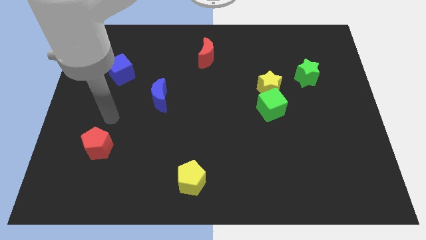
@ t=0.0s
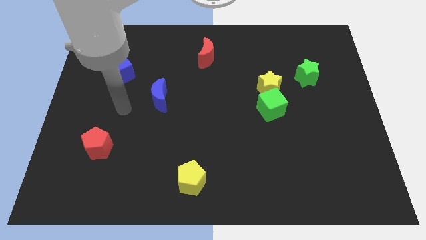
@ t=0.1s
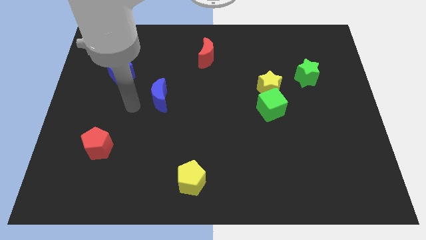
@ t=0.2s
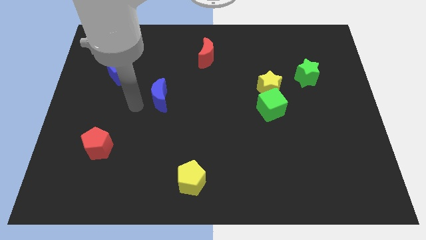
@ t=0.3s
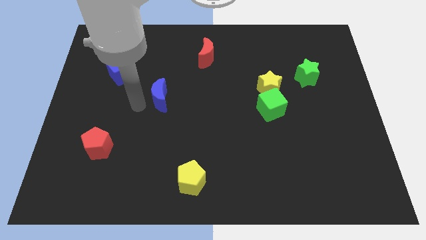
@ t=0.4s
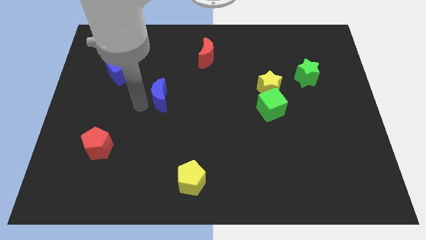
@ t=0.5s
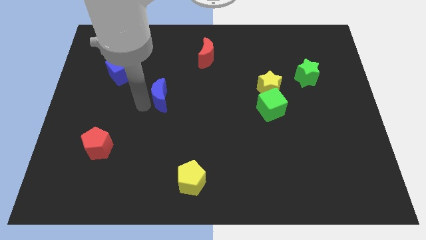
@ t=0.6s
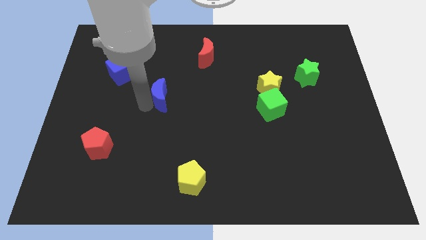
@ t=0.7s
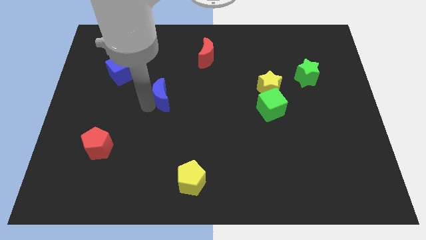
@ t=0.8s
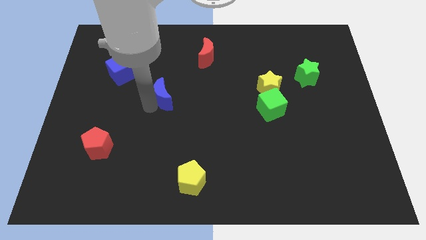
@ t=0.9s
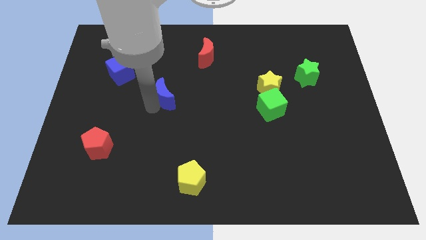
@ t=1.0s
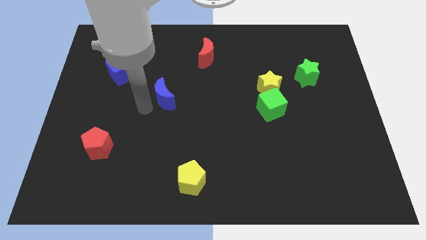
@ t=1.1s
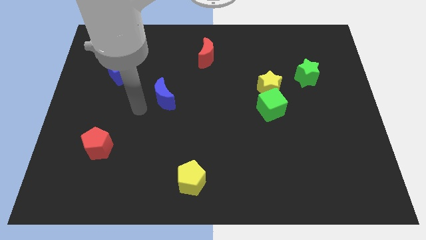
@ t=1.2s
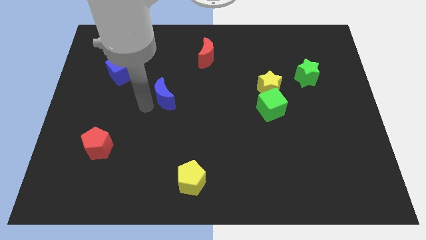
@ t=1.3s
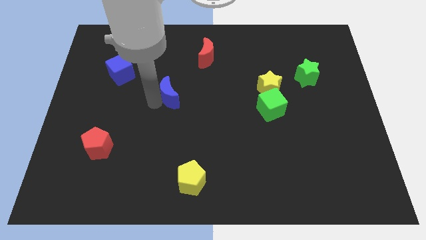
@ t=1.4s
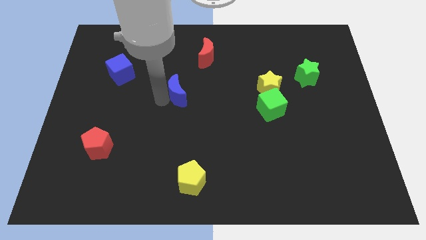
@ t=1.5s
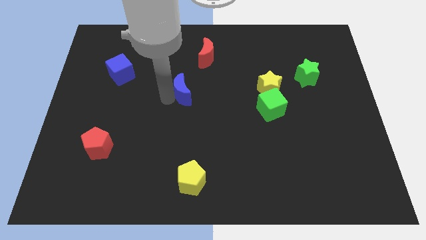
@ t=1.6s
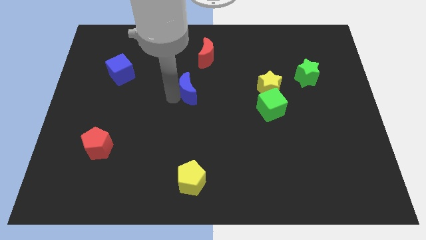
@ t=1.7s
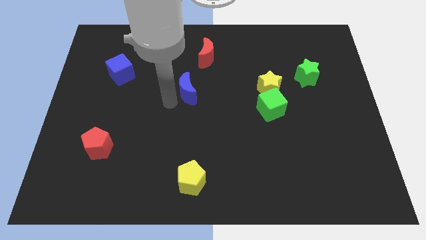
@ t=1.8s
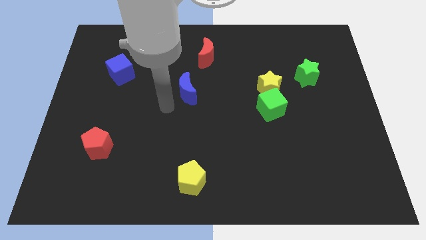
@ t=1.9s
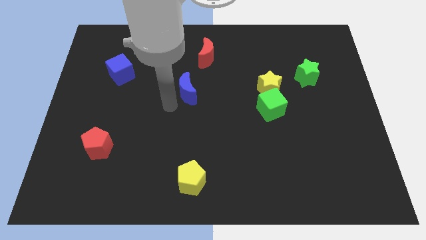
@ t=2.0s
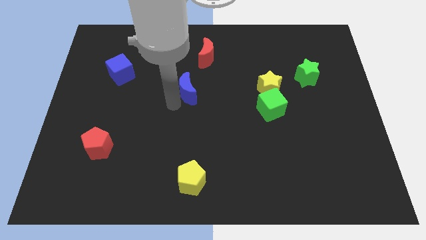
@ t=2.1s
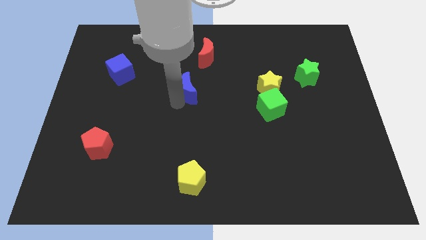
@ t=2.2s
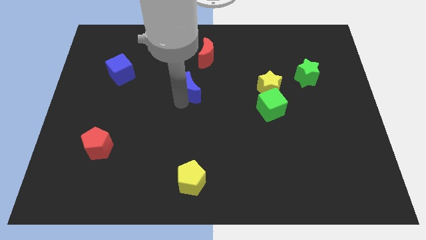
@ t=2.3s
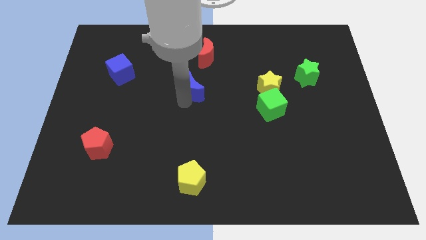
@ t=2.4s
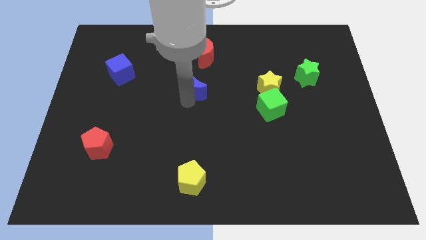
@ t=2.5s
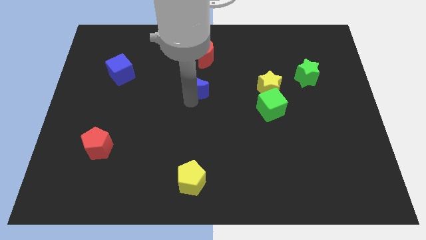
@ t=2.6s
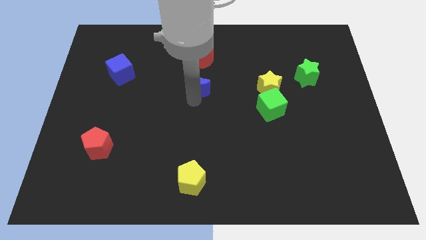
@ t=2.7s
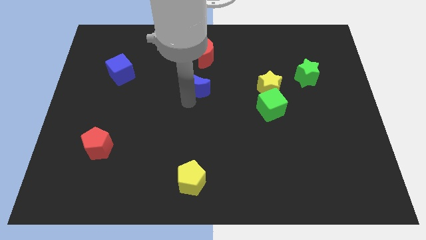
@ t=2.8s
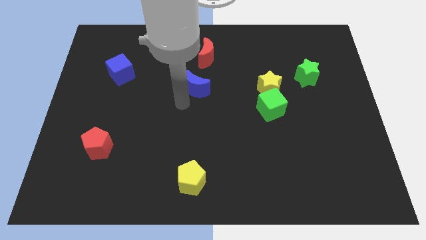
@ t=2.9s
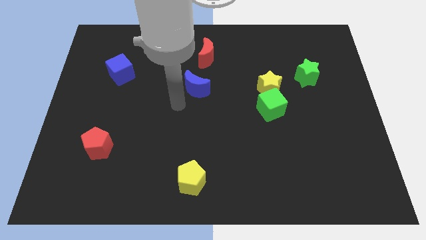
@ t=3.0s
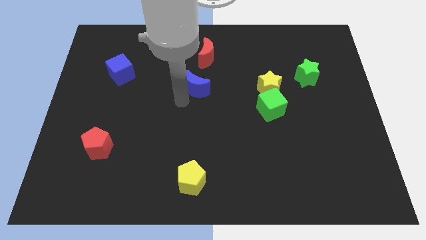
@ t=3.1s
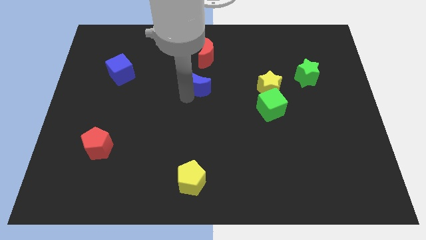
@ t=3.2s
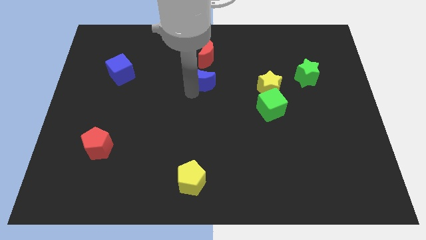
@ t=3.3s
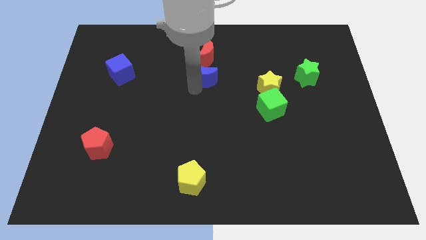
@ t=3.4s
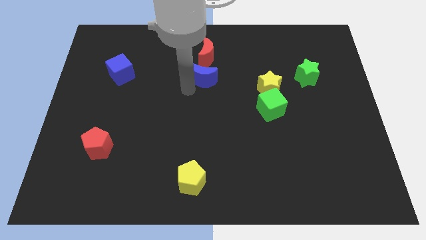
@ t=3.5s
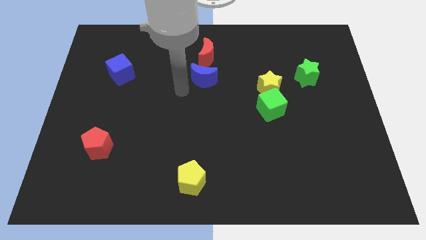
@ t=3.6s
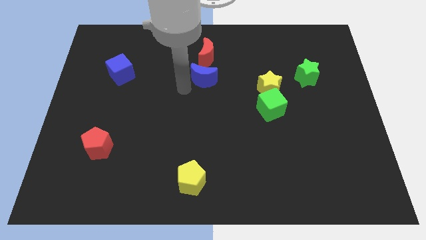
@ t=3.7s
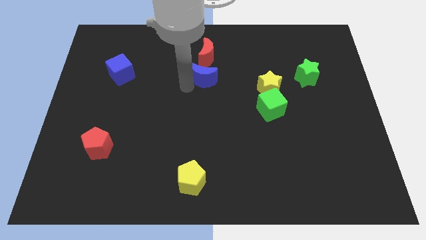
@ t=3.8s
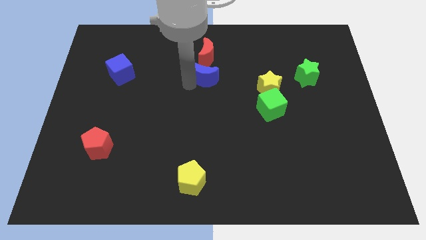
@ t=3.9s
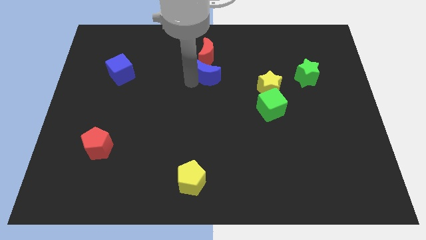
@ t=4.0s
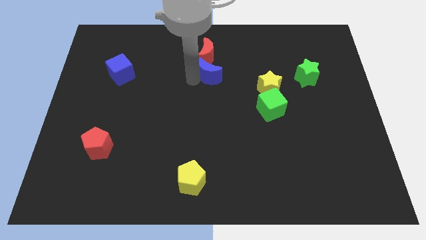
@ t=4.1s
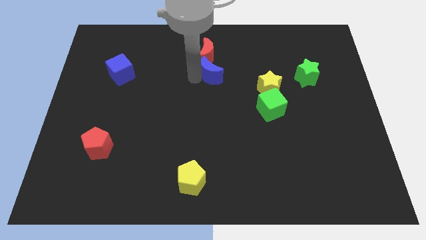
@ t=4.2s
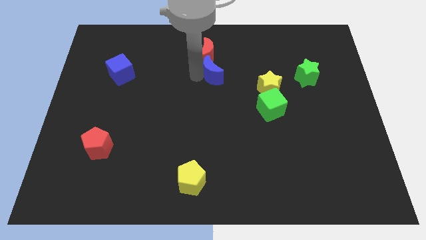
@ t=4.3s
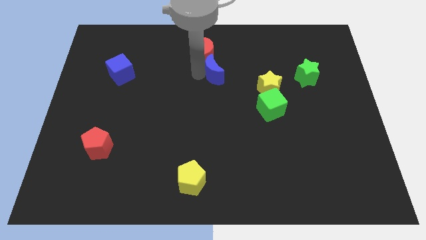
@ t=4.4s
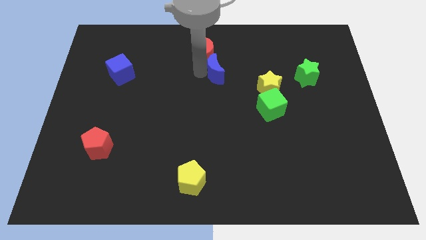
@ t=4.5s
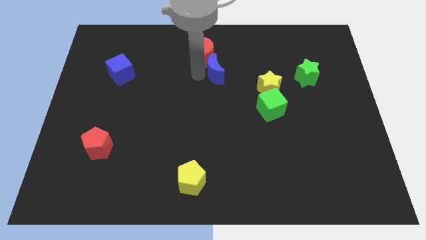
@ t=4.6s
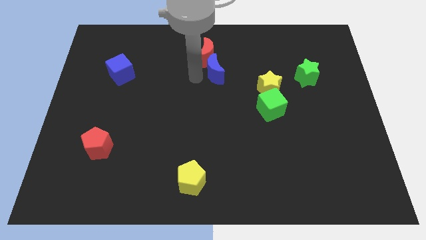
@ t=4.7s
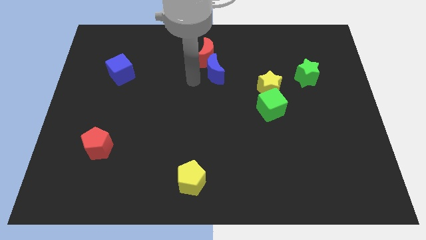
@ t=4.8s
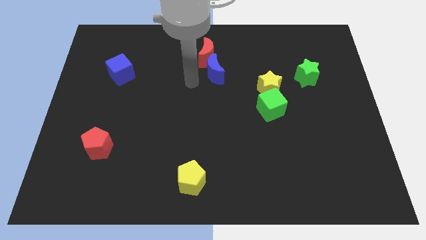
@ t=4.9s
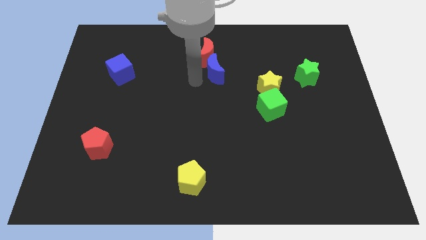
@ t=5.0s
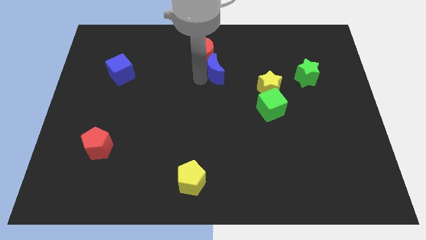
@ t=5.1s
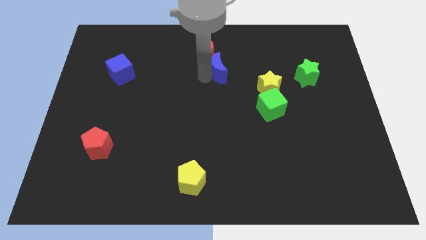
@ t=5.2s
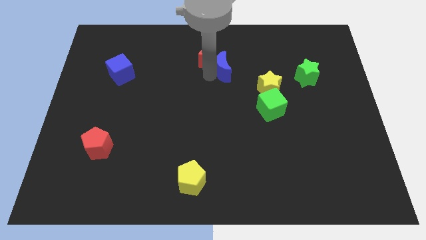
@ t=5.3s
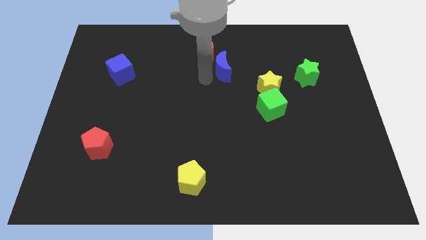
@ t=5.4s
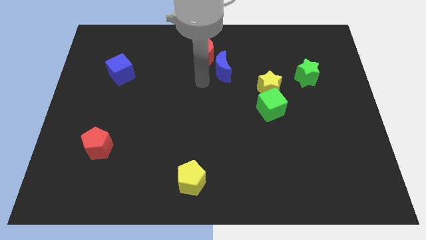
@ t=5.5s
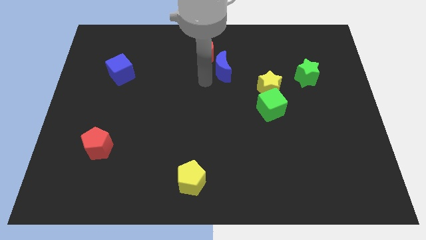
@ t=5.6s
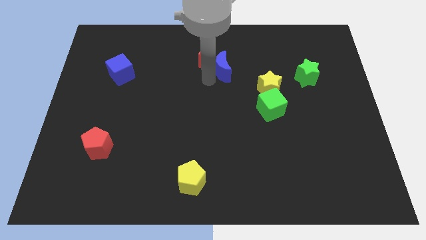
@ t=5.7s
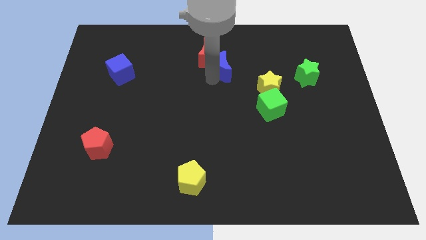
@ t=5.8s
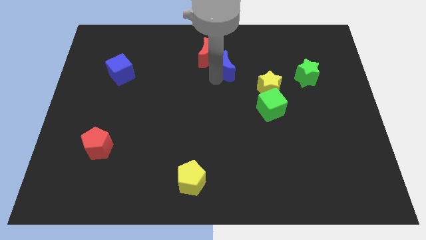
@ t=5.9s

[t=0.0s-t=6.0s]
move the blue moon just right of the red moon

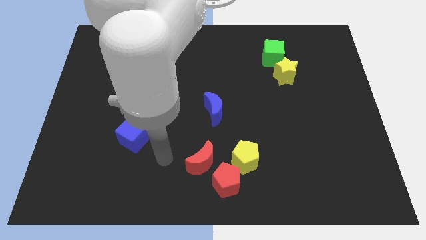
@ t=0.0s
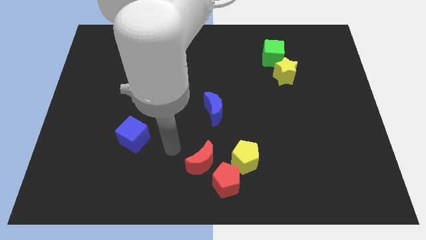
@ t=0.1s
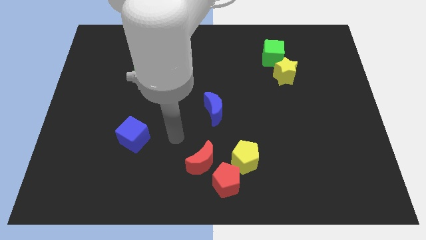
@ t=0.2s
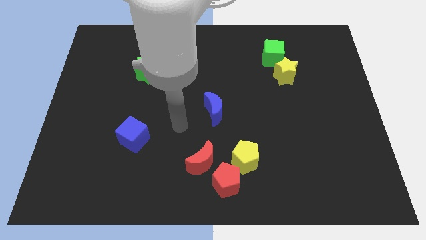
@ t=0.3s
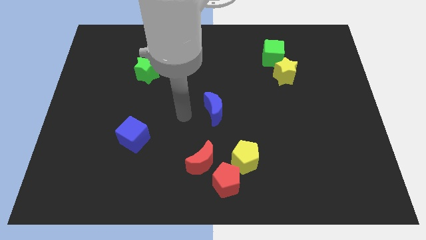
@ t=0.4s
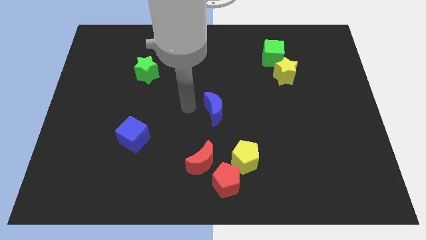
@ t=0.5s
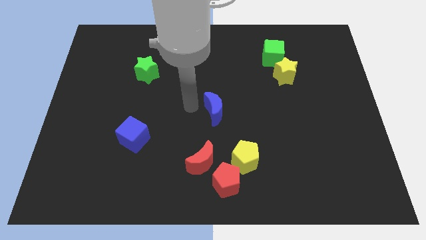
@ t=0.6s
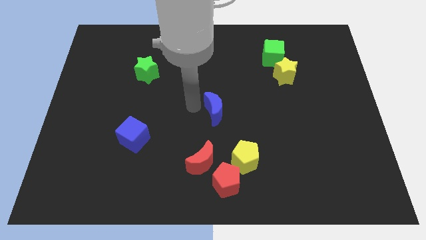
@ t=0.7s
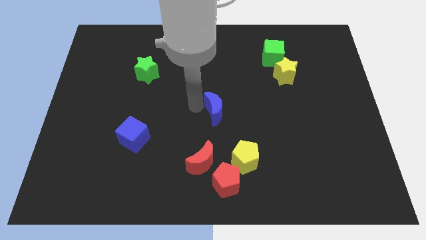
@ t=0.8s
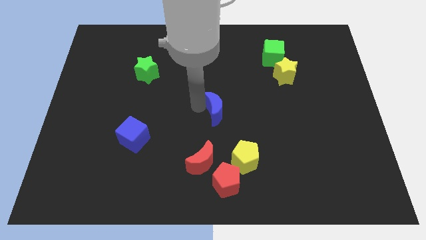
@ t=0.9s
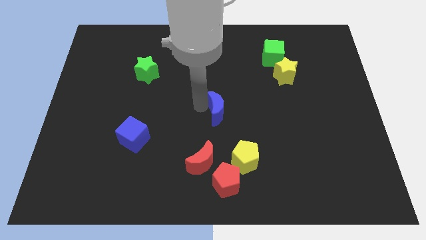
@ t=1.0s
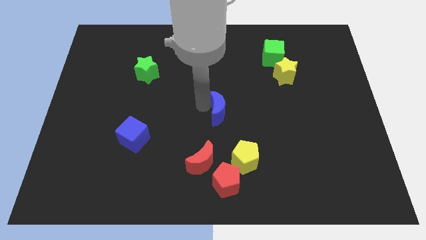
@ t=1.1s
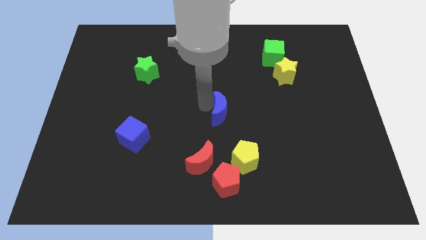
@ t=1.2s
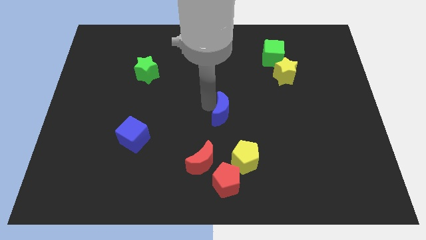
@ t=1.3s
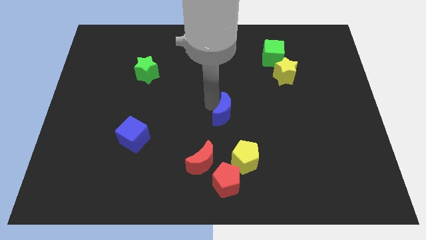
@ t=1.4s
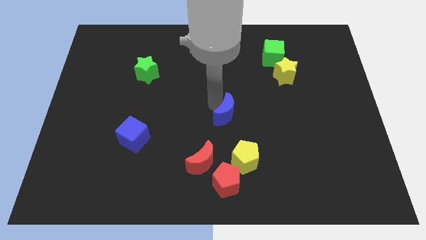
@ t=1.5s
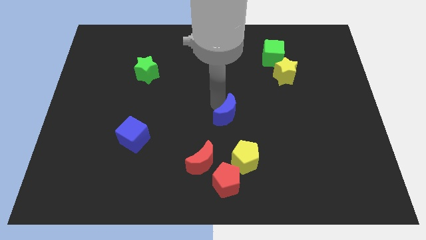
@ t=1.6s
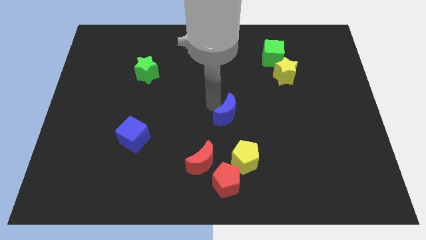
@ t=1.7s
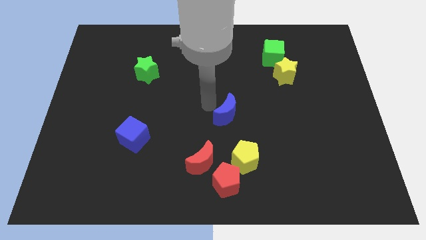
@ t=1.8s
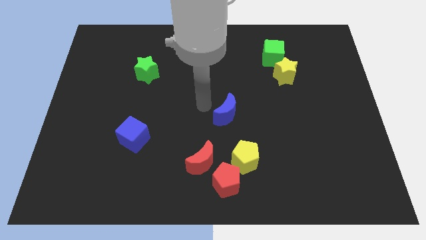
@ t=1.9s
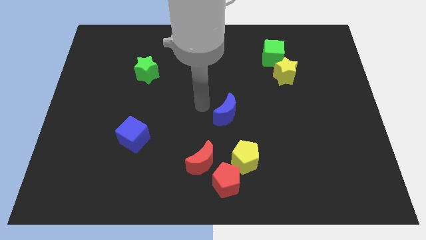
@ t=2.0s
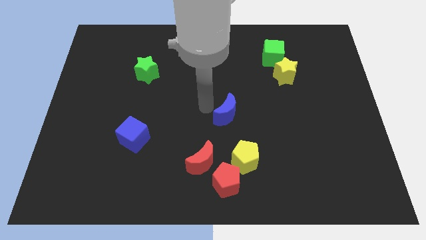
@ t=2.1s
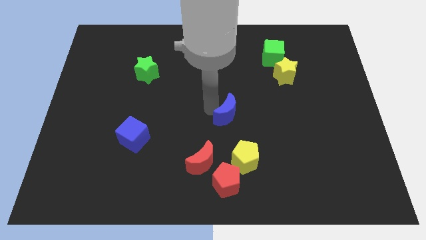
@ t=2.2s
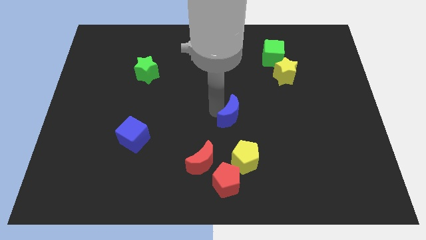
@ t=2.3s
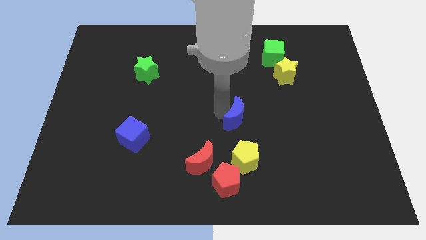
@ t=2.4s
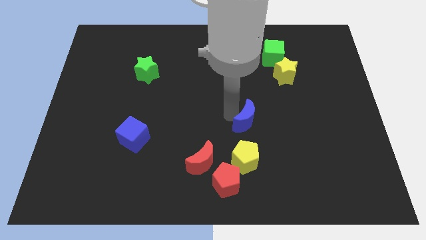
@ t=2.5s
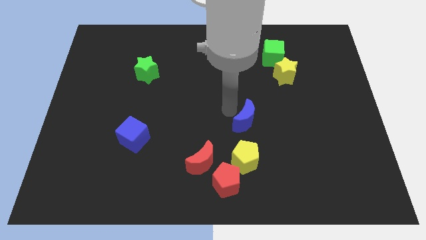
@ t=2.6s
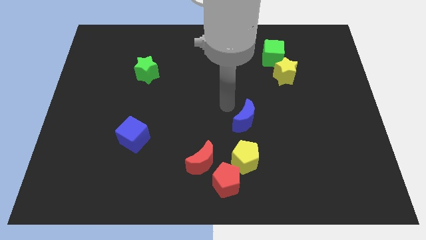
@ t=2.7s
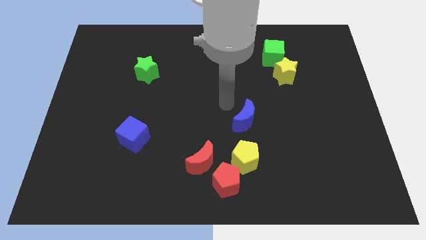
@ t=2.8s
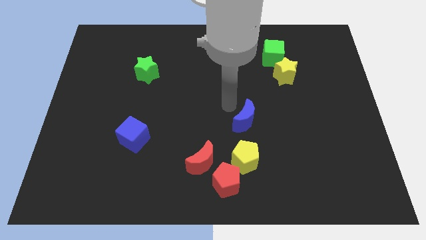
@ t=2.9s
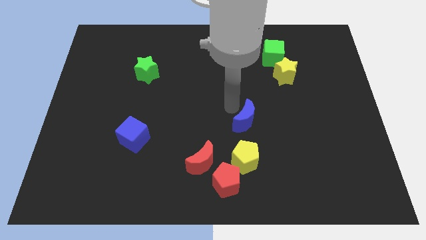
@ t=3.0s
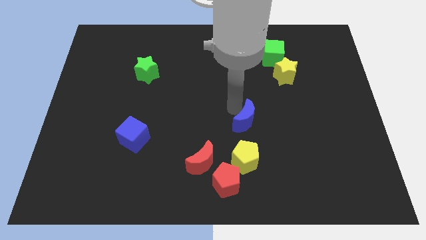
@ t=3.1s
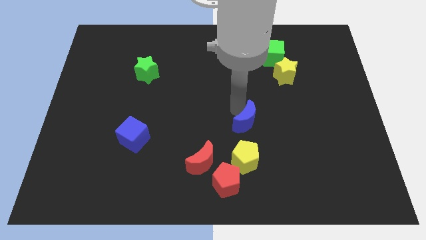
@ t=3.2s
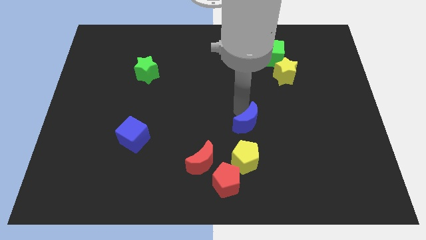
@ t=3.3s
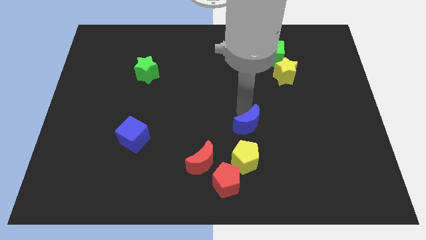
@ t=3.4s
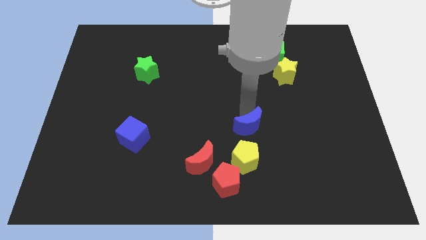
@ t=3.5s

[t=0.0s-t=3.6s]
put the blue moon to the top right side of the yellow pentagon
